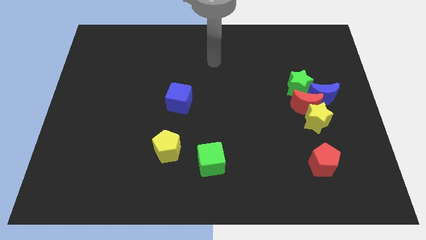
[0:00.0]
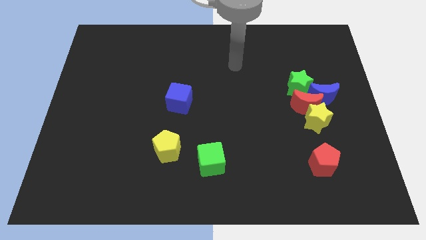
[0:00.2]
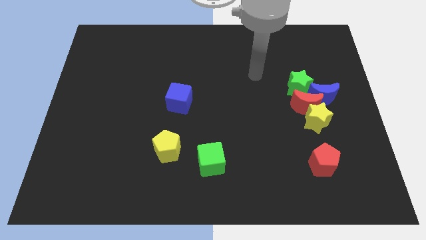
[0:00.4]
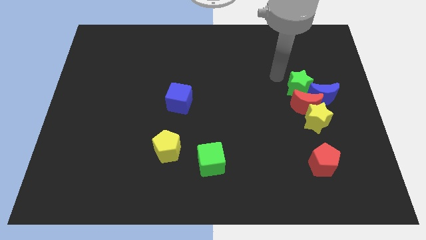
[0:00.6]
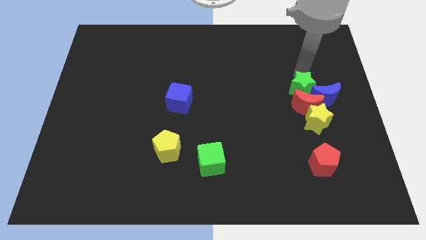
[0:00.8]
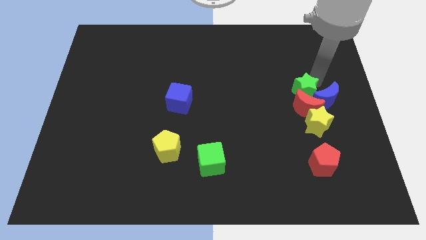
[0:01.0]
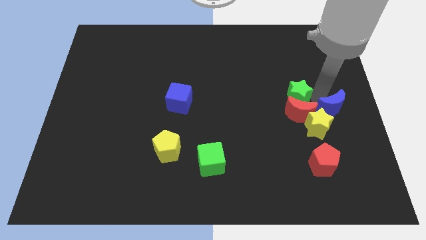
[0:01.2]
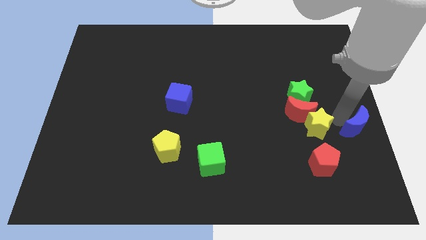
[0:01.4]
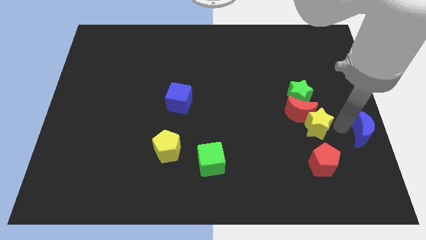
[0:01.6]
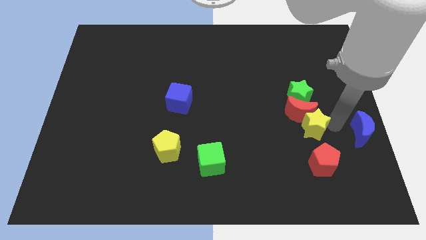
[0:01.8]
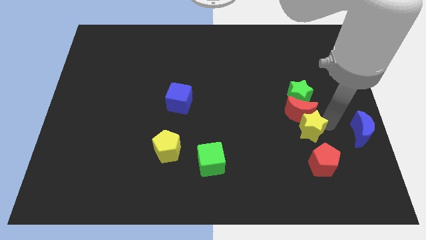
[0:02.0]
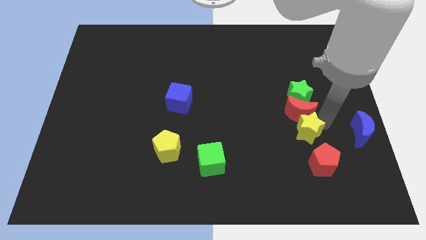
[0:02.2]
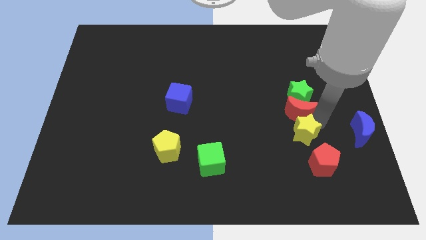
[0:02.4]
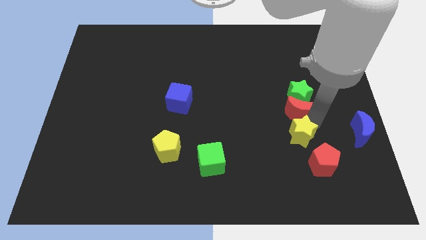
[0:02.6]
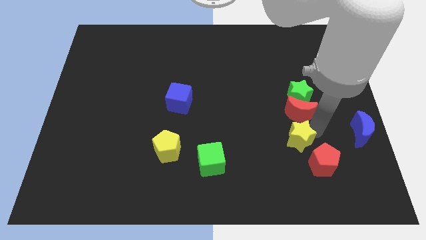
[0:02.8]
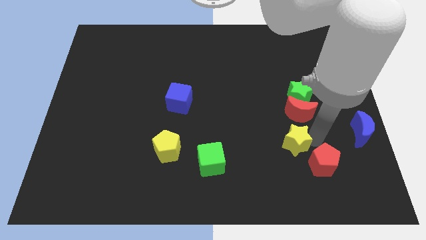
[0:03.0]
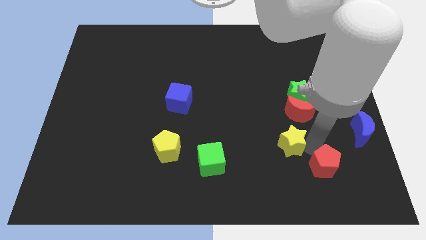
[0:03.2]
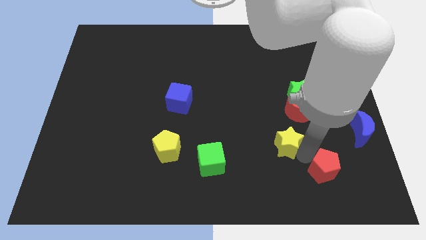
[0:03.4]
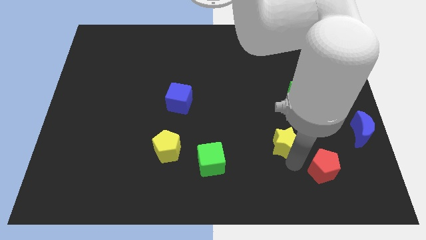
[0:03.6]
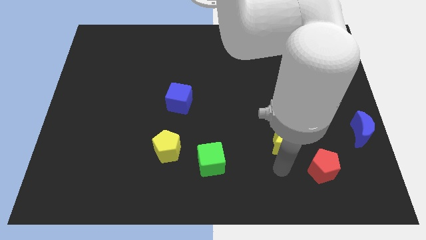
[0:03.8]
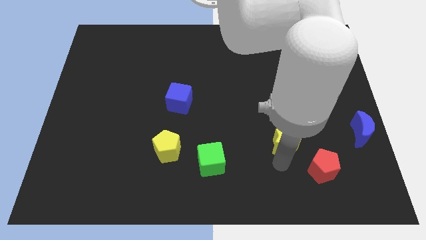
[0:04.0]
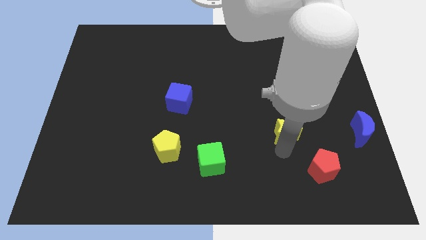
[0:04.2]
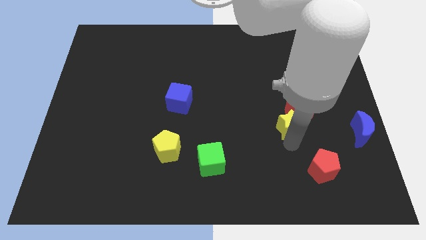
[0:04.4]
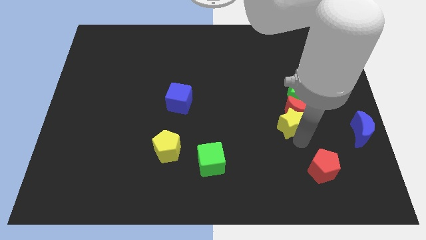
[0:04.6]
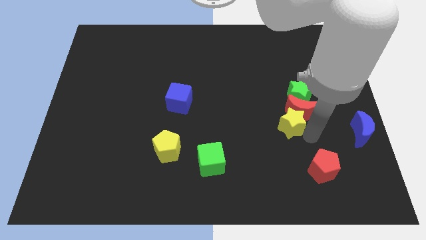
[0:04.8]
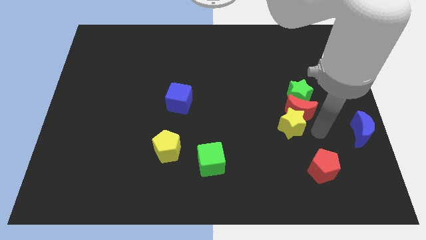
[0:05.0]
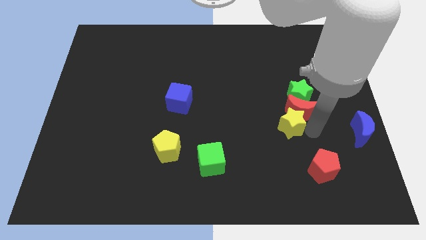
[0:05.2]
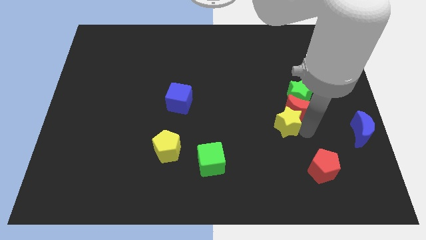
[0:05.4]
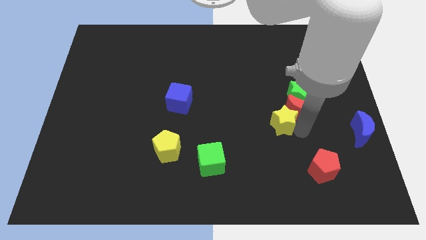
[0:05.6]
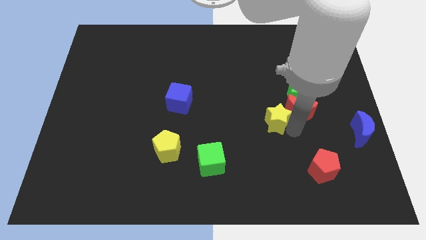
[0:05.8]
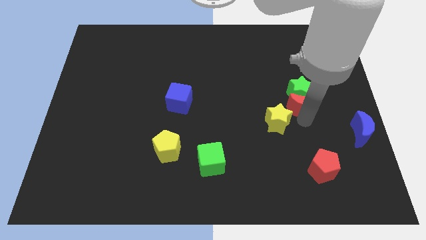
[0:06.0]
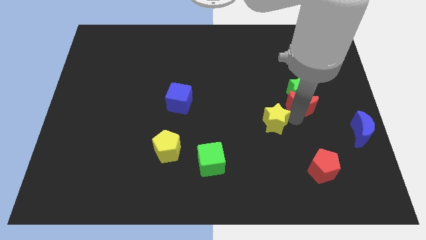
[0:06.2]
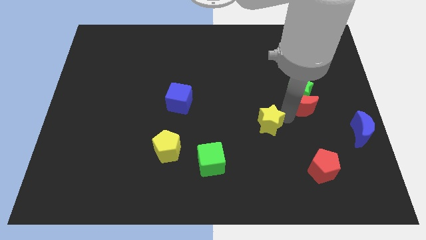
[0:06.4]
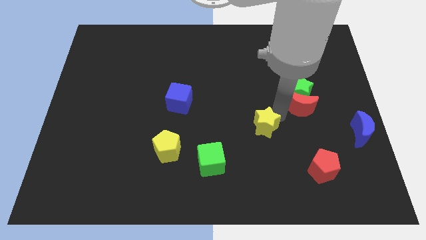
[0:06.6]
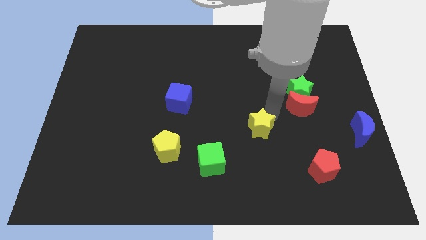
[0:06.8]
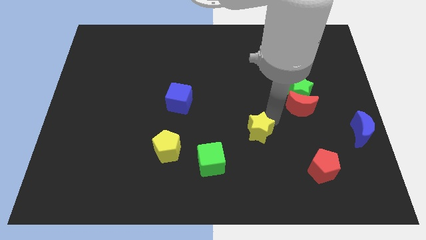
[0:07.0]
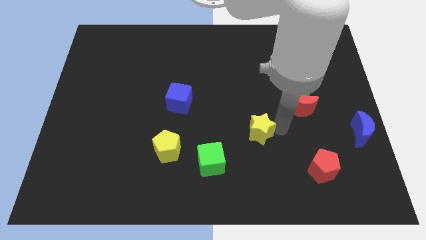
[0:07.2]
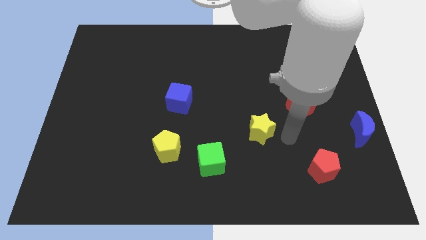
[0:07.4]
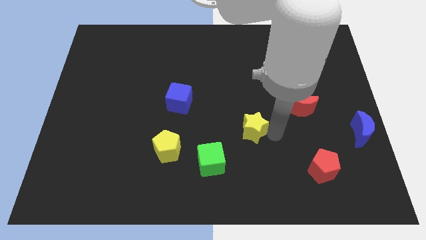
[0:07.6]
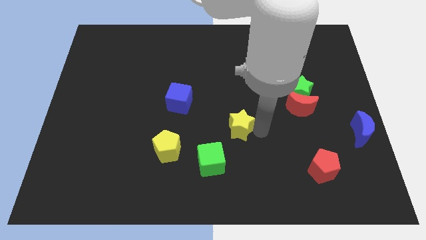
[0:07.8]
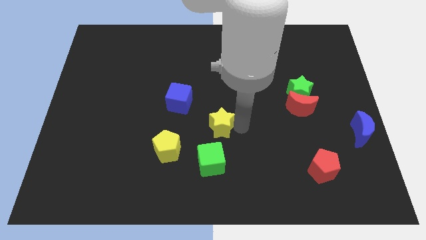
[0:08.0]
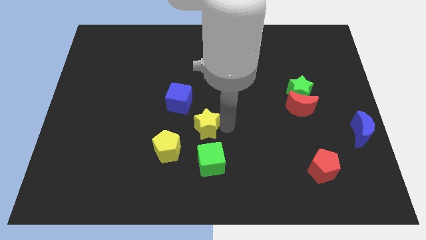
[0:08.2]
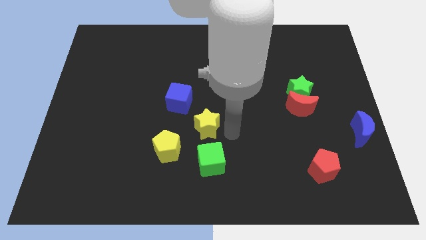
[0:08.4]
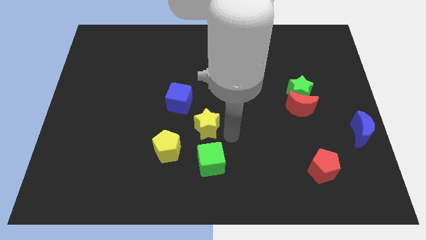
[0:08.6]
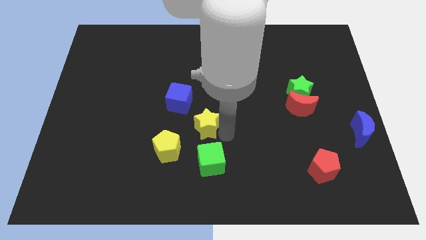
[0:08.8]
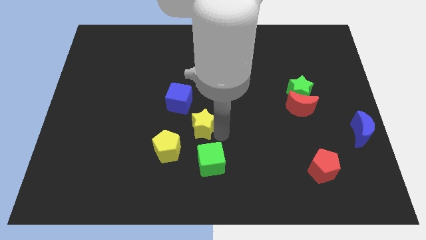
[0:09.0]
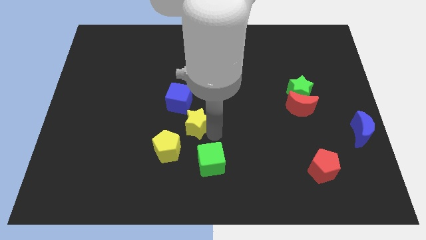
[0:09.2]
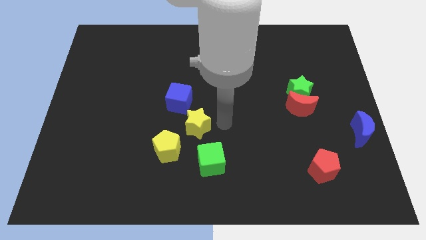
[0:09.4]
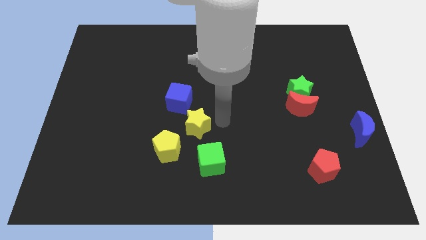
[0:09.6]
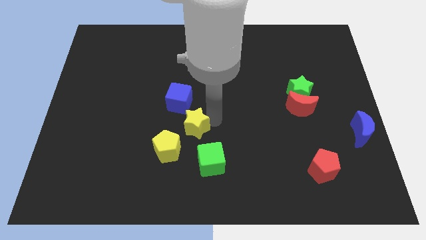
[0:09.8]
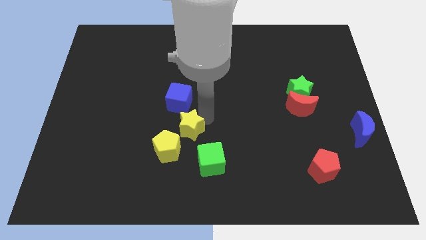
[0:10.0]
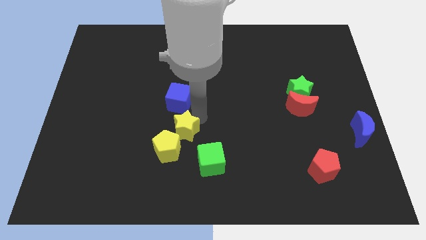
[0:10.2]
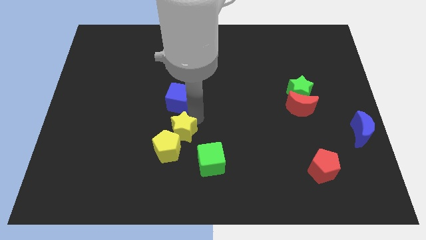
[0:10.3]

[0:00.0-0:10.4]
move the yellow star towards the yellow pentagon

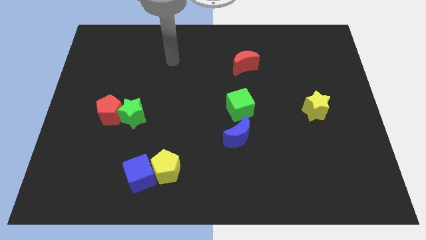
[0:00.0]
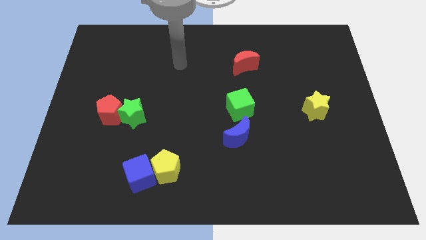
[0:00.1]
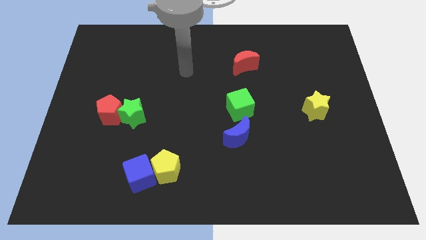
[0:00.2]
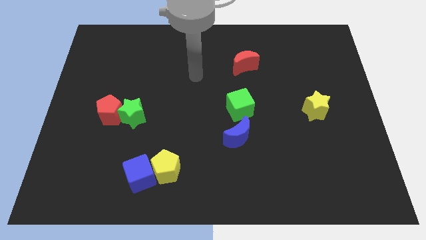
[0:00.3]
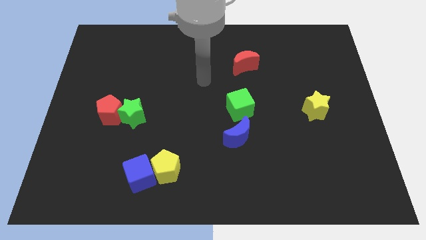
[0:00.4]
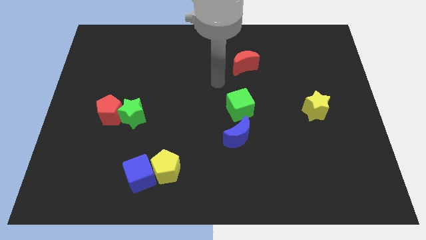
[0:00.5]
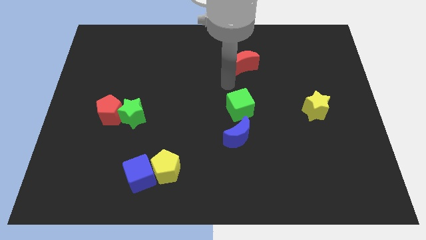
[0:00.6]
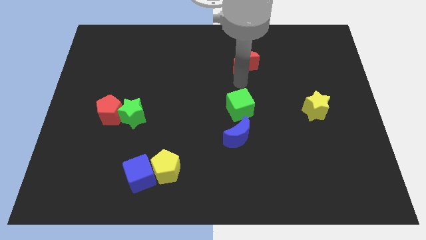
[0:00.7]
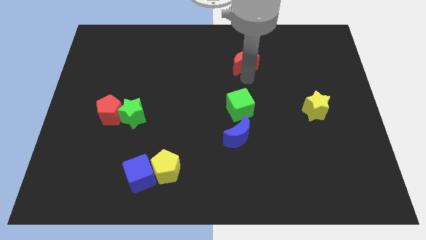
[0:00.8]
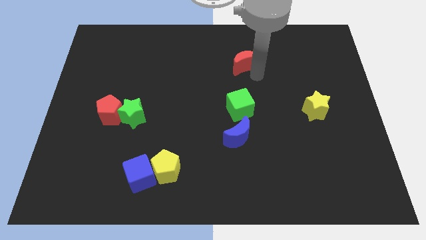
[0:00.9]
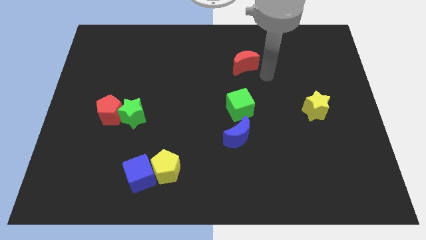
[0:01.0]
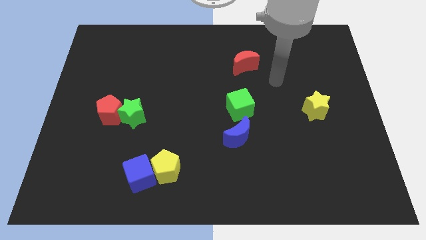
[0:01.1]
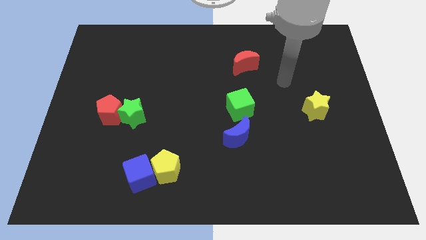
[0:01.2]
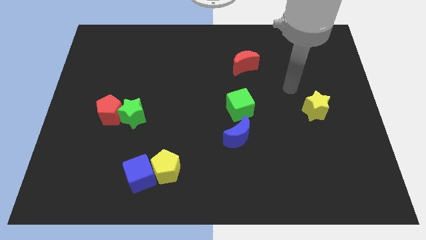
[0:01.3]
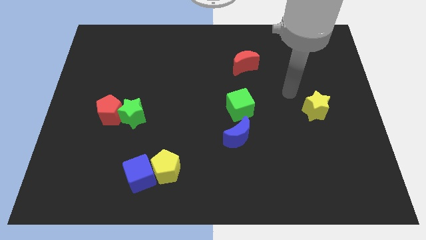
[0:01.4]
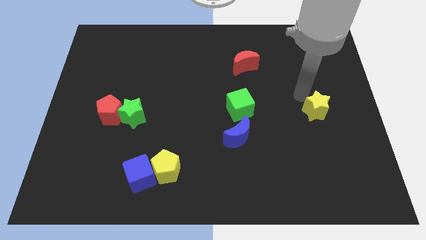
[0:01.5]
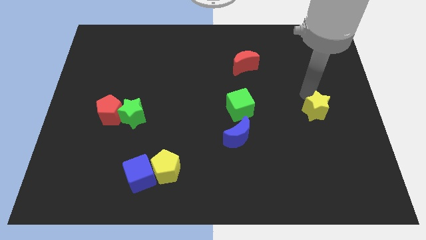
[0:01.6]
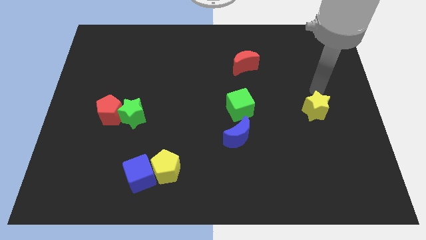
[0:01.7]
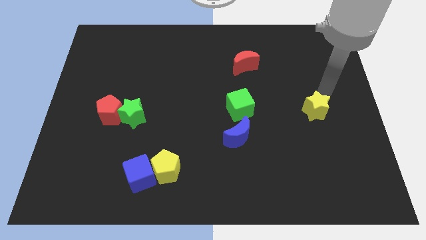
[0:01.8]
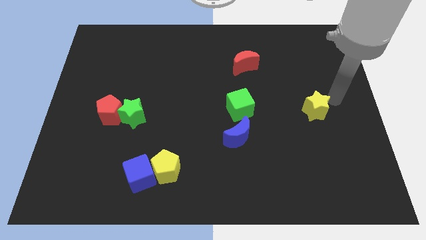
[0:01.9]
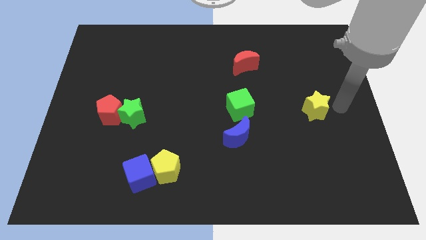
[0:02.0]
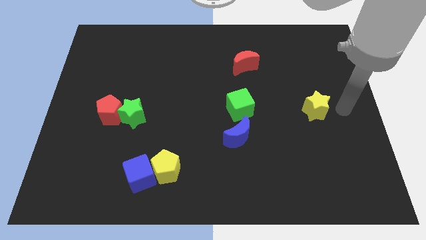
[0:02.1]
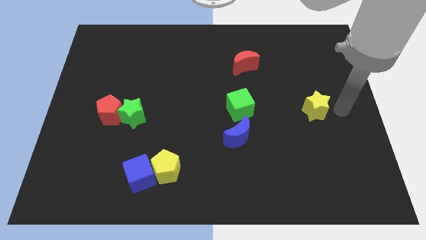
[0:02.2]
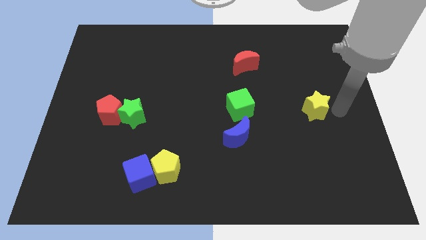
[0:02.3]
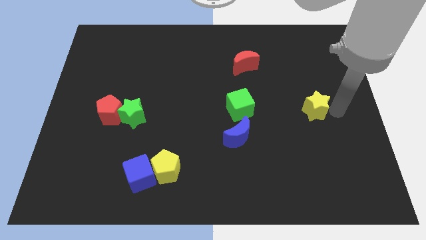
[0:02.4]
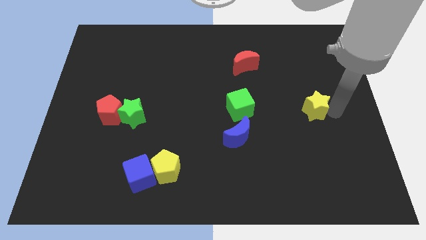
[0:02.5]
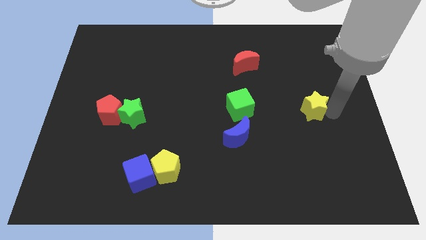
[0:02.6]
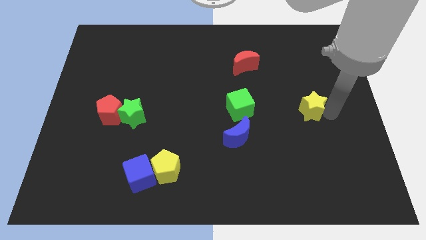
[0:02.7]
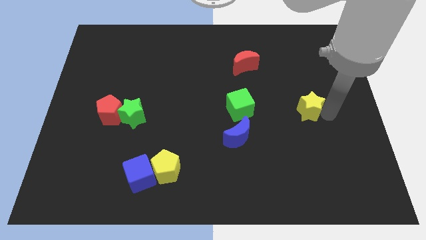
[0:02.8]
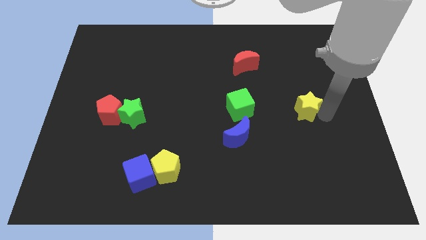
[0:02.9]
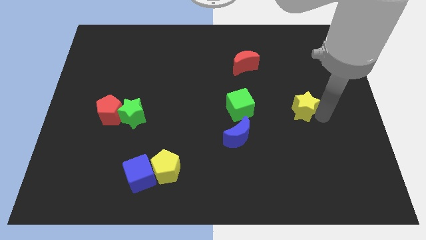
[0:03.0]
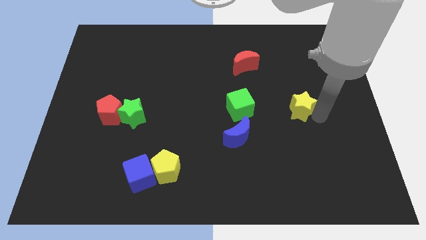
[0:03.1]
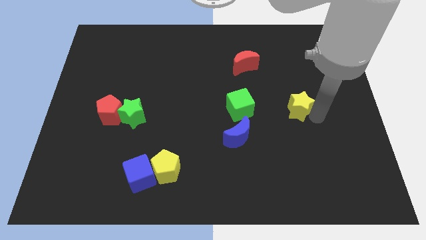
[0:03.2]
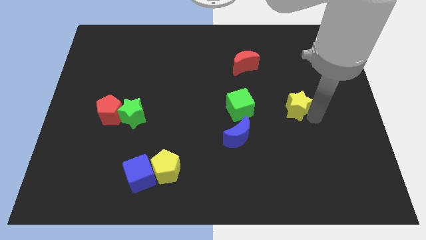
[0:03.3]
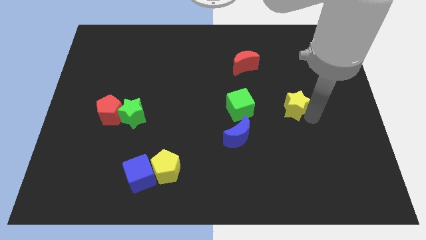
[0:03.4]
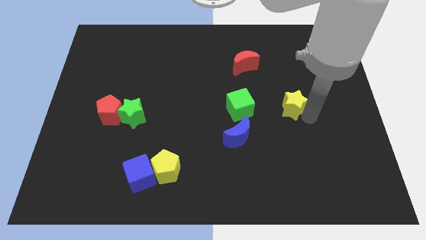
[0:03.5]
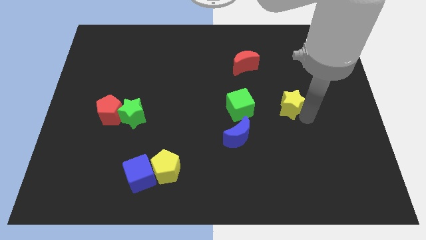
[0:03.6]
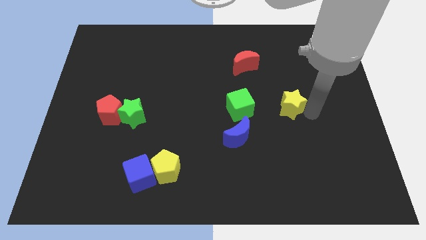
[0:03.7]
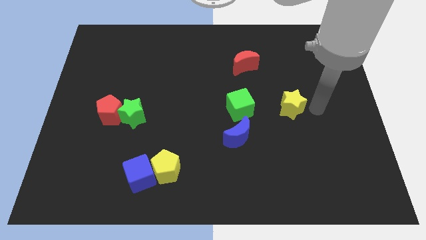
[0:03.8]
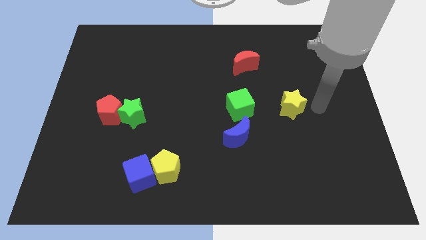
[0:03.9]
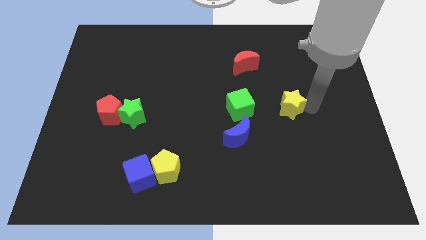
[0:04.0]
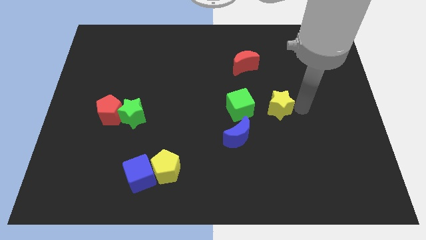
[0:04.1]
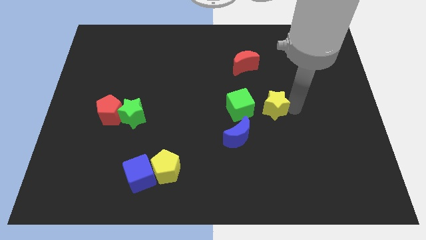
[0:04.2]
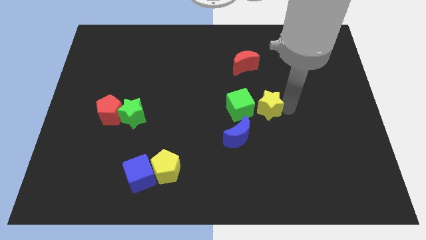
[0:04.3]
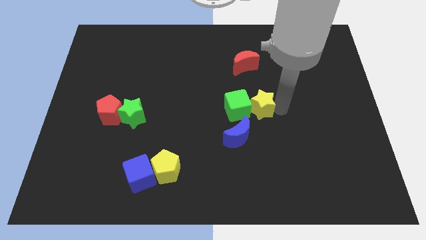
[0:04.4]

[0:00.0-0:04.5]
slide the yellow star next to the green cube
